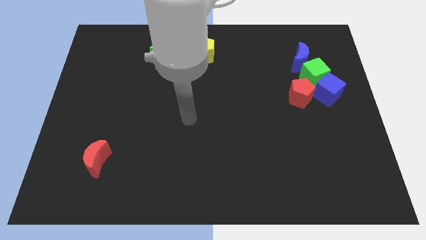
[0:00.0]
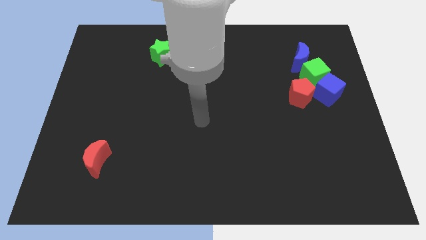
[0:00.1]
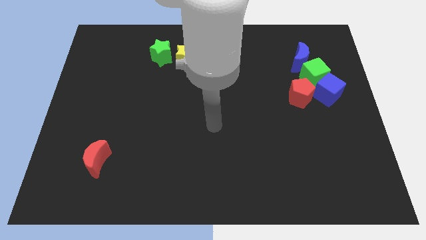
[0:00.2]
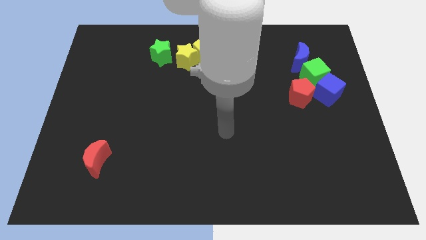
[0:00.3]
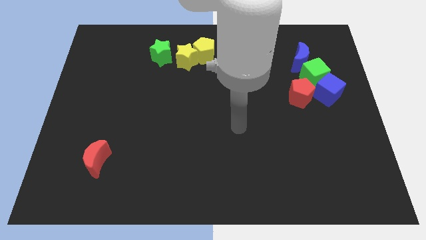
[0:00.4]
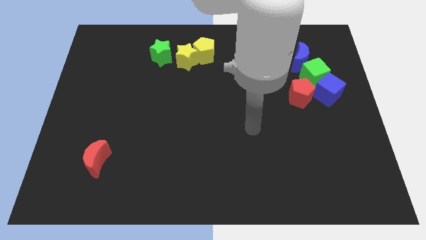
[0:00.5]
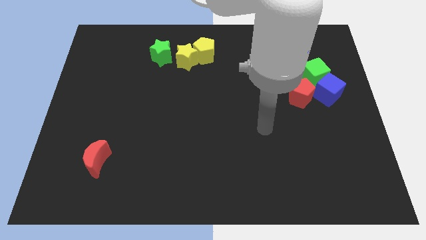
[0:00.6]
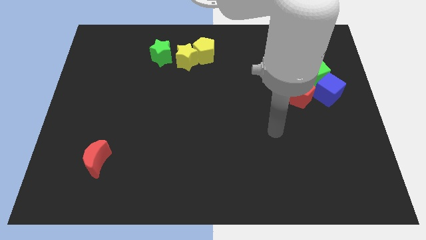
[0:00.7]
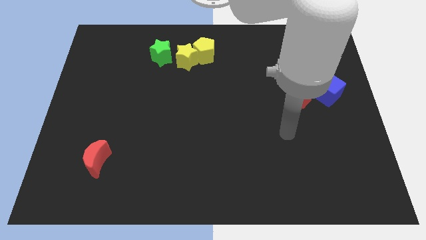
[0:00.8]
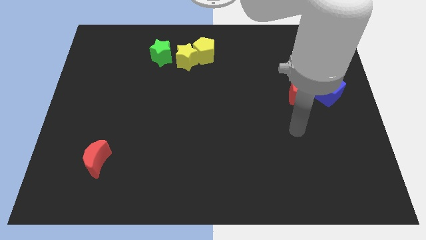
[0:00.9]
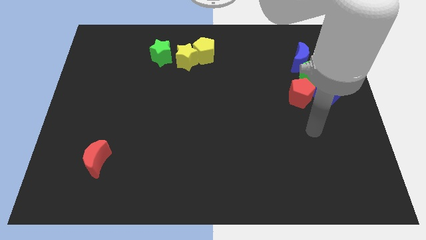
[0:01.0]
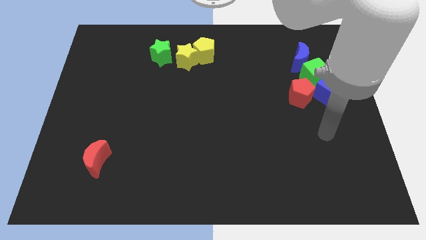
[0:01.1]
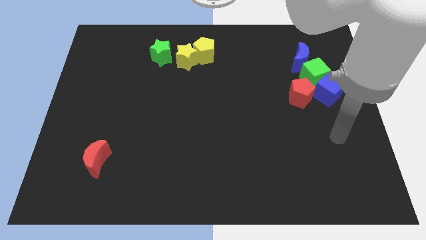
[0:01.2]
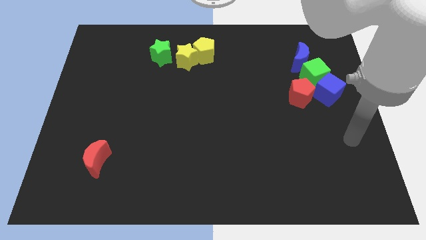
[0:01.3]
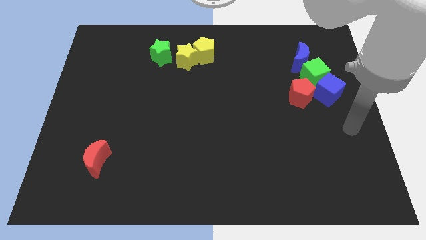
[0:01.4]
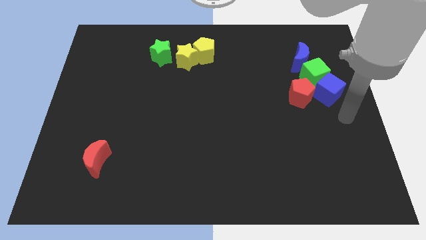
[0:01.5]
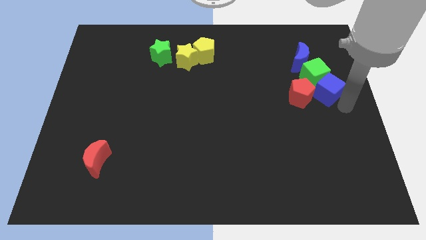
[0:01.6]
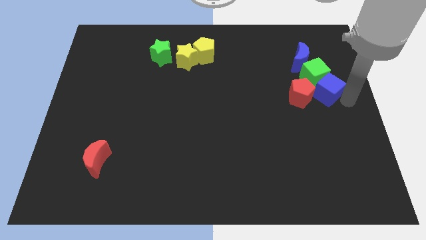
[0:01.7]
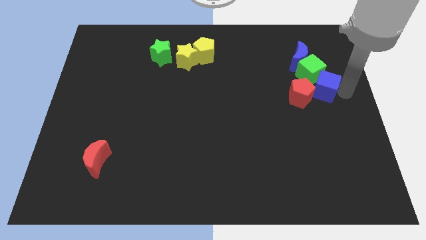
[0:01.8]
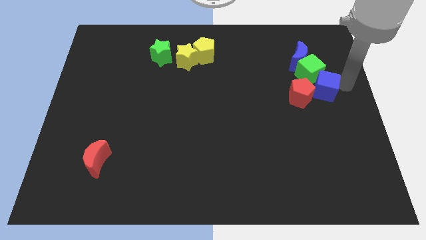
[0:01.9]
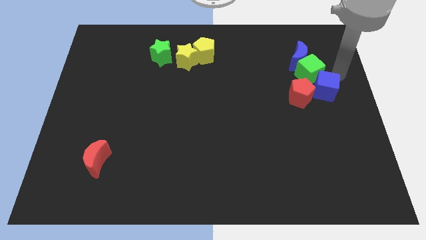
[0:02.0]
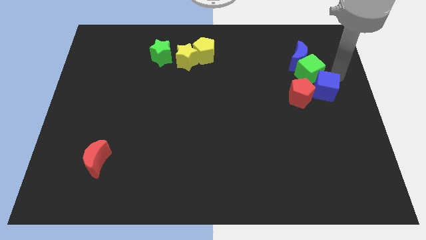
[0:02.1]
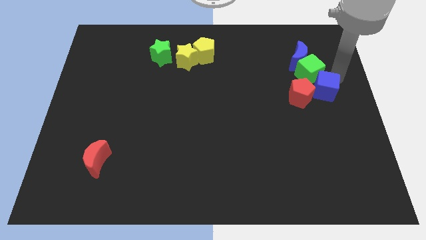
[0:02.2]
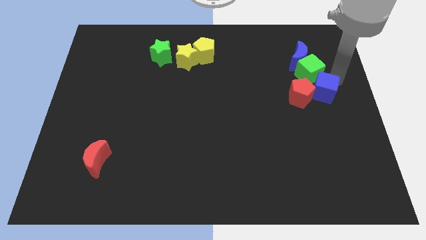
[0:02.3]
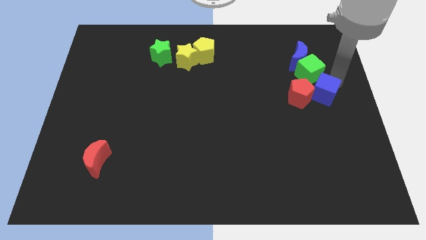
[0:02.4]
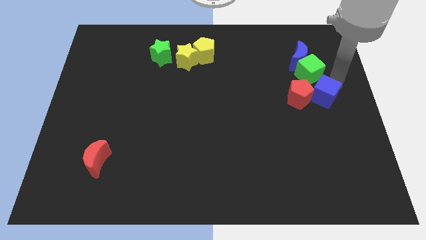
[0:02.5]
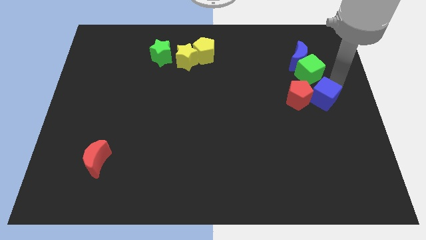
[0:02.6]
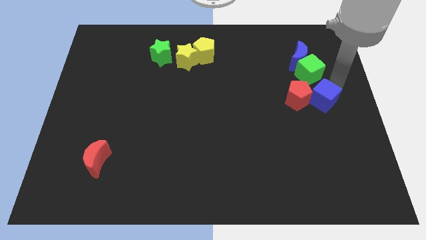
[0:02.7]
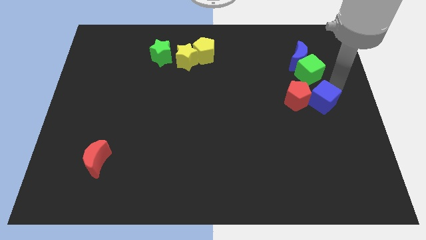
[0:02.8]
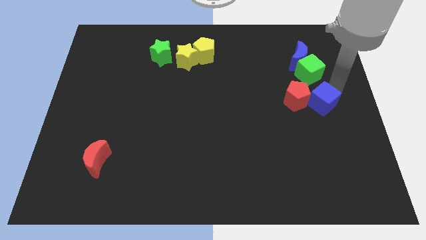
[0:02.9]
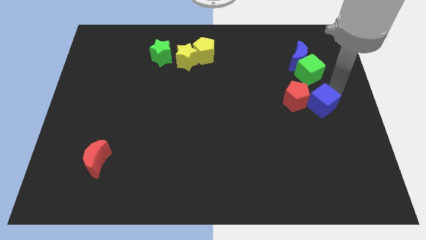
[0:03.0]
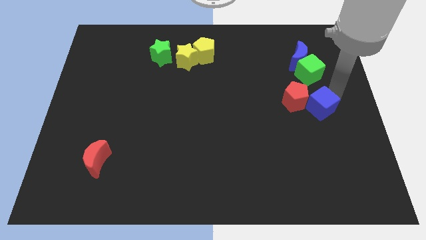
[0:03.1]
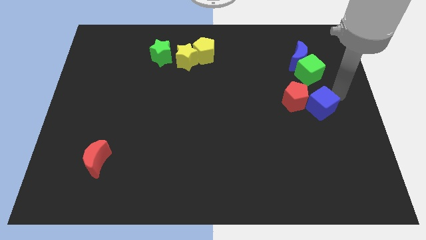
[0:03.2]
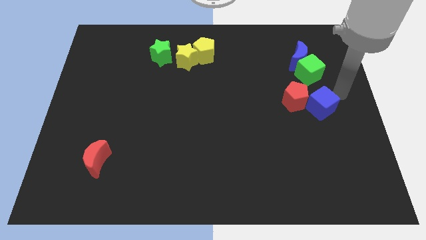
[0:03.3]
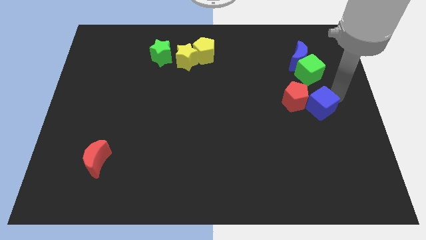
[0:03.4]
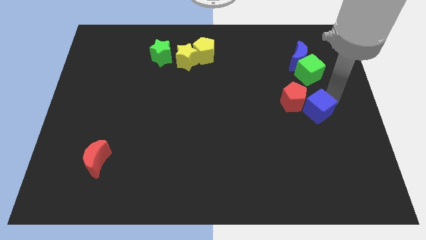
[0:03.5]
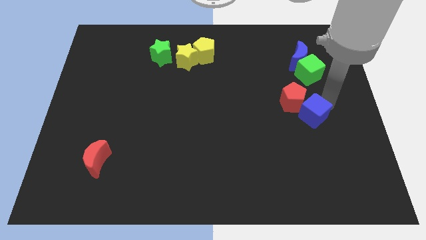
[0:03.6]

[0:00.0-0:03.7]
slightly push the blue cube down and left

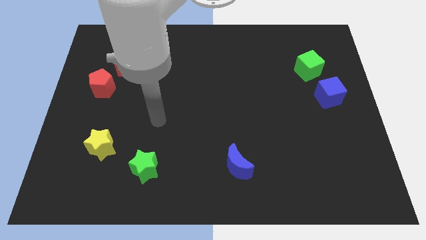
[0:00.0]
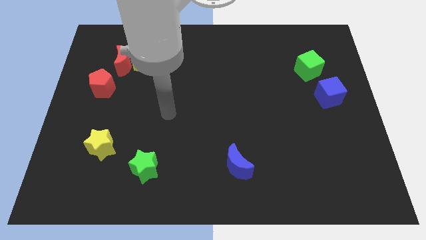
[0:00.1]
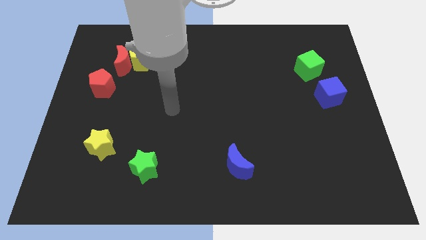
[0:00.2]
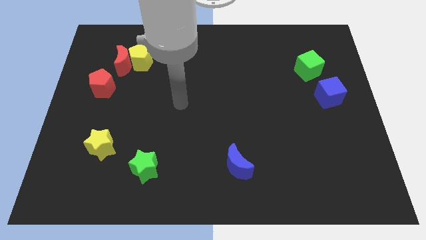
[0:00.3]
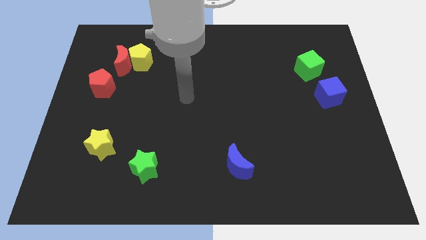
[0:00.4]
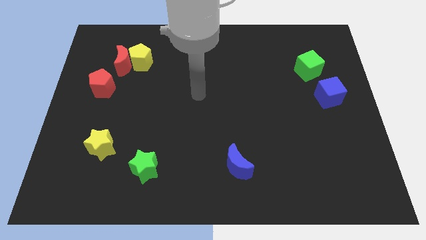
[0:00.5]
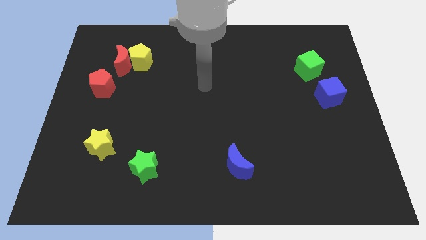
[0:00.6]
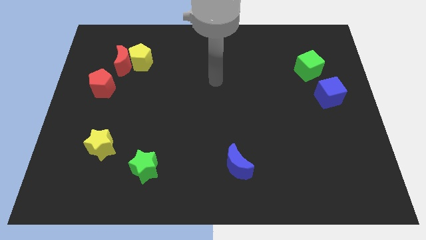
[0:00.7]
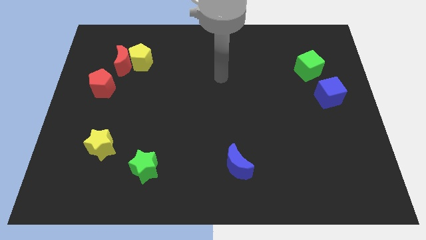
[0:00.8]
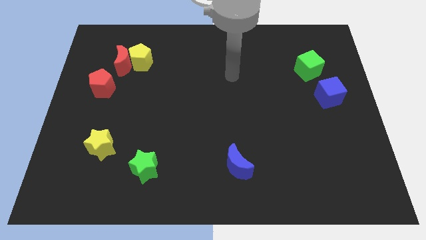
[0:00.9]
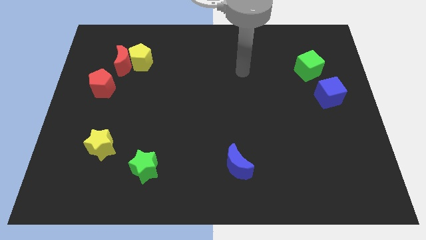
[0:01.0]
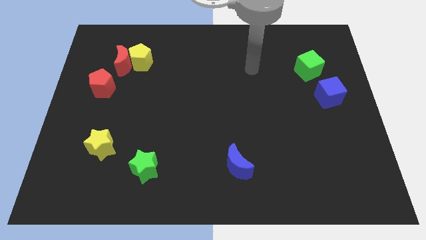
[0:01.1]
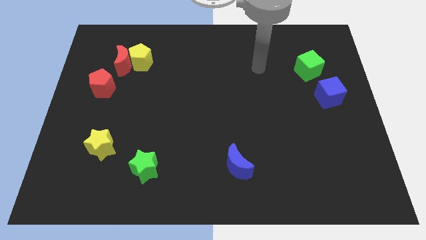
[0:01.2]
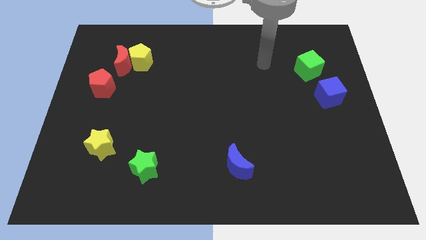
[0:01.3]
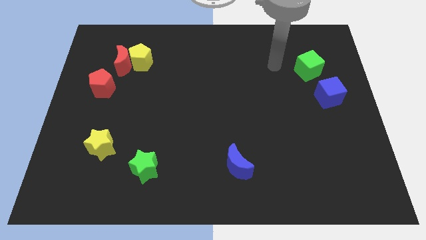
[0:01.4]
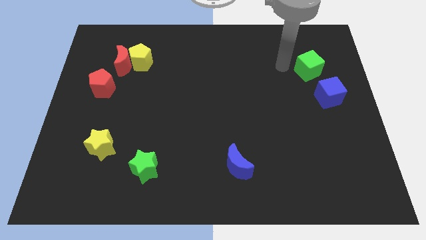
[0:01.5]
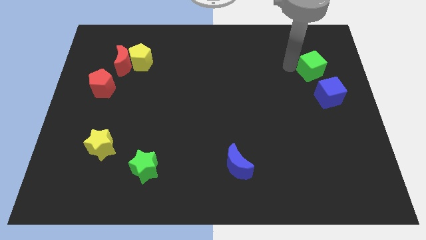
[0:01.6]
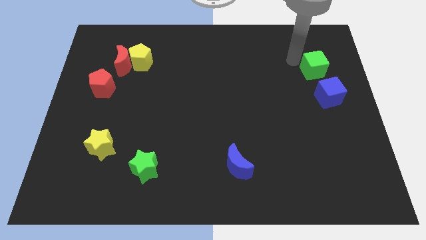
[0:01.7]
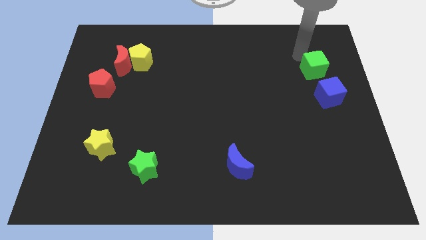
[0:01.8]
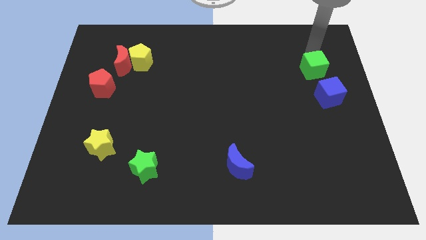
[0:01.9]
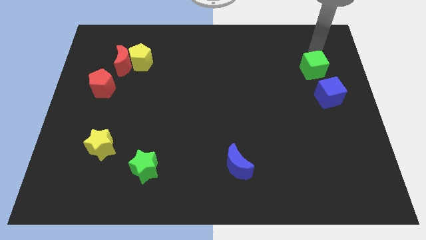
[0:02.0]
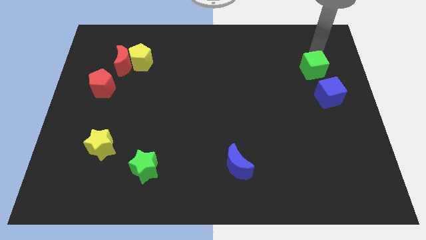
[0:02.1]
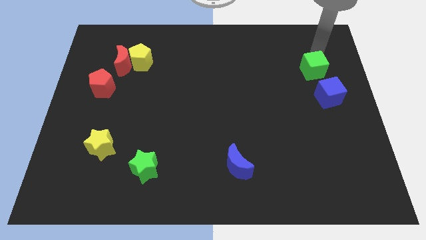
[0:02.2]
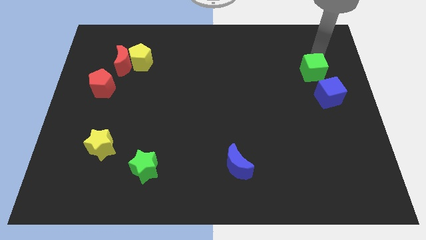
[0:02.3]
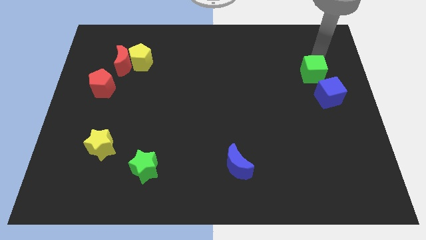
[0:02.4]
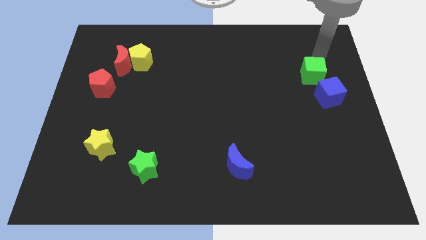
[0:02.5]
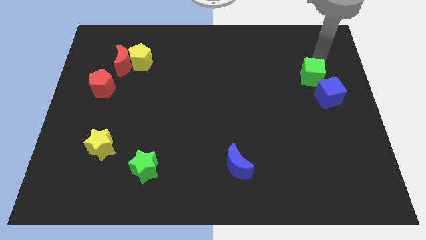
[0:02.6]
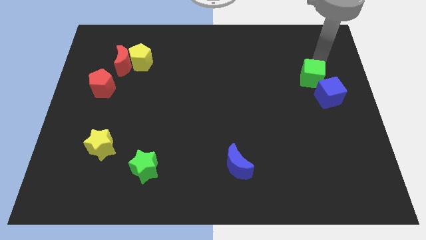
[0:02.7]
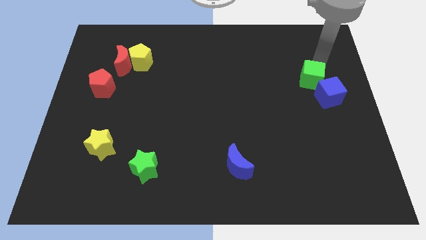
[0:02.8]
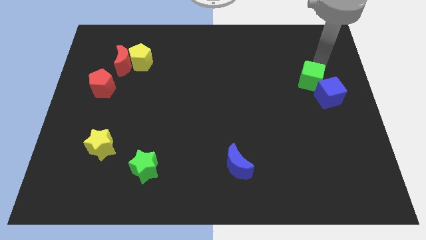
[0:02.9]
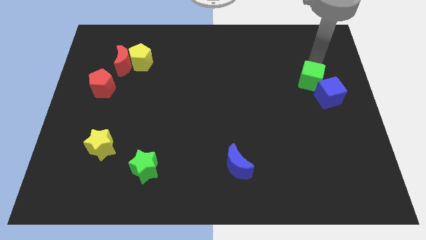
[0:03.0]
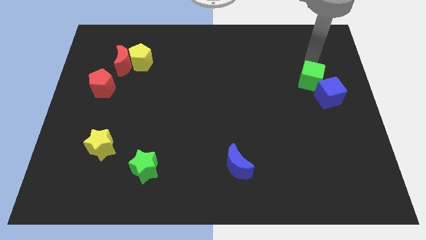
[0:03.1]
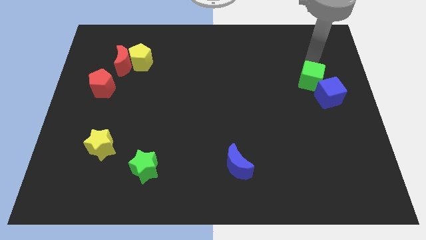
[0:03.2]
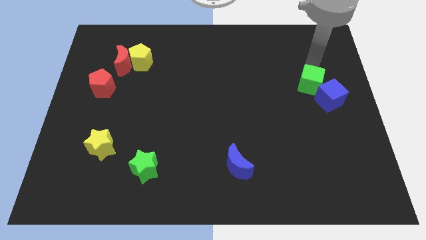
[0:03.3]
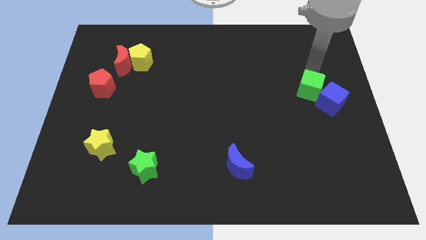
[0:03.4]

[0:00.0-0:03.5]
slightly move the green cube down

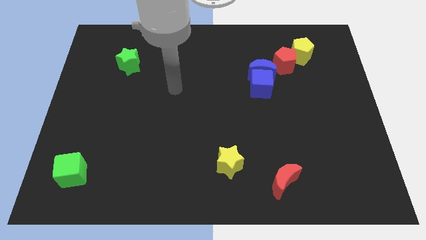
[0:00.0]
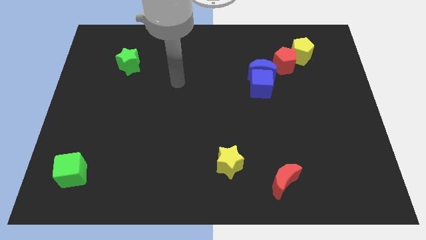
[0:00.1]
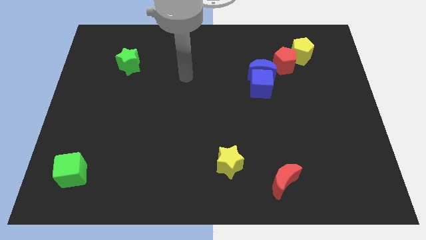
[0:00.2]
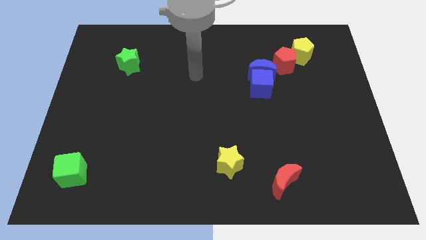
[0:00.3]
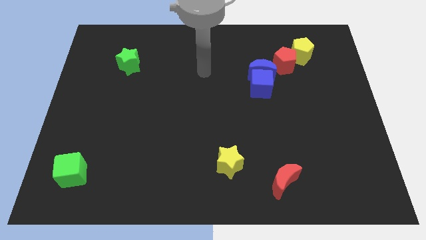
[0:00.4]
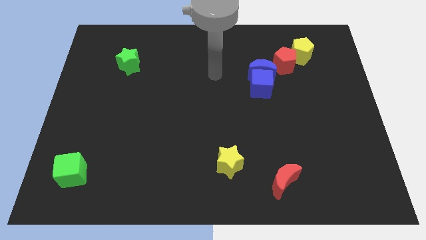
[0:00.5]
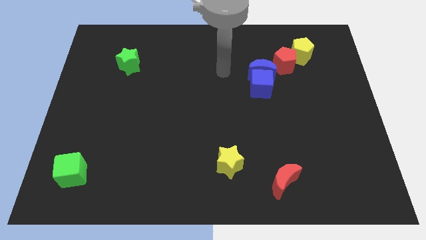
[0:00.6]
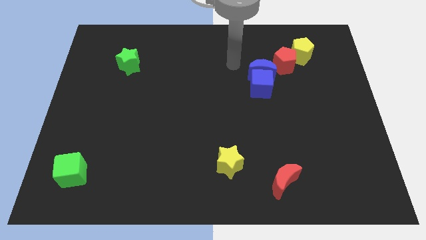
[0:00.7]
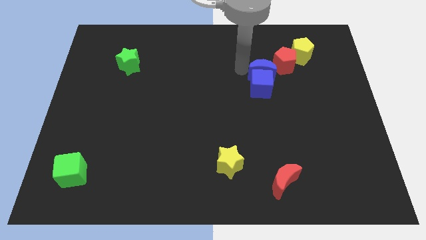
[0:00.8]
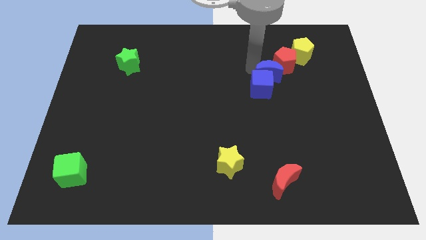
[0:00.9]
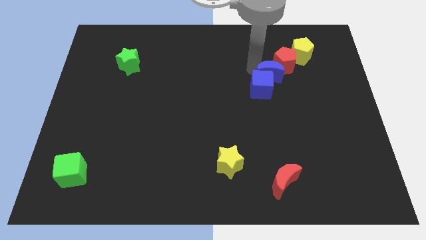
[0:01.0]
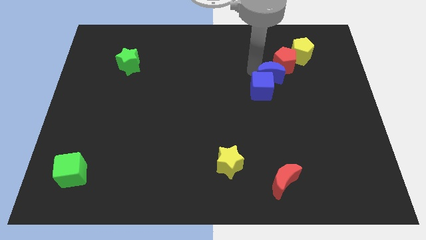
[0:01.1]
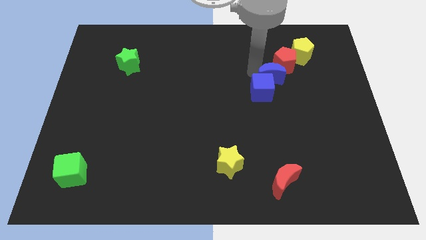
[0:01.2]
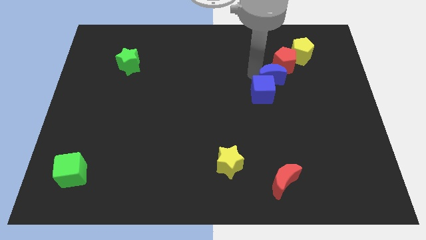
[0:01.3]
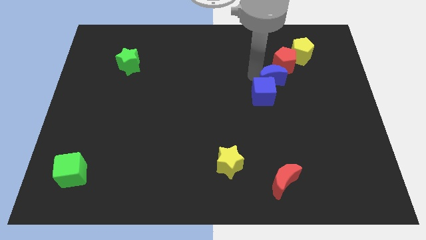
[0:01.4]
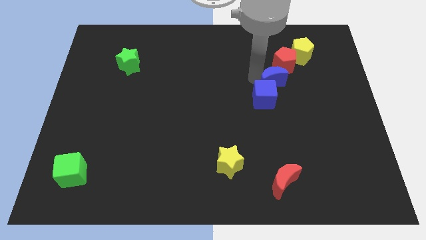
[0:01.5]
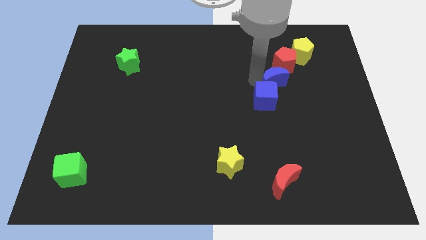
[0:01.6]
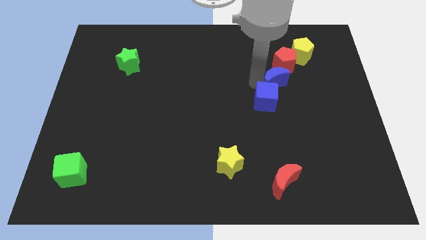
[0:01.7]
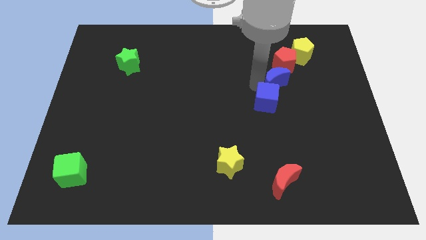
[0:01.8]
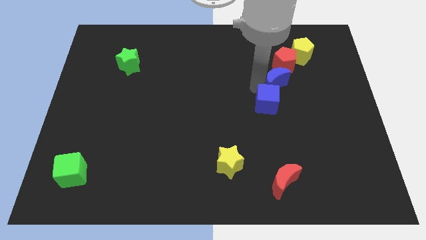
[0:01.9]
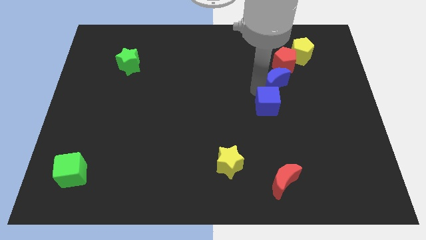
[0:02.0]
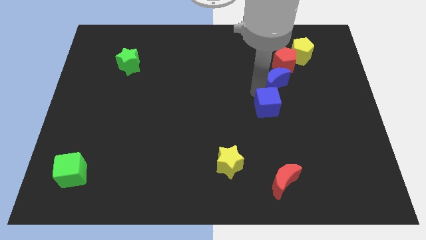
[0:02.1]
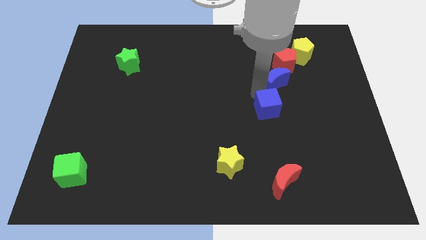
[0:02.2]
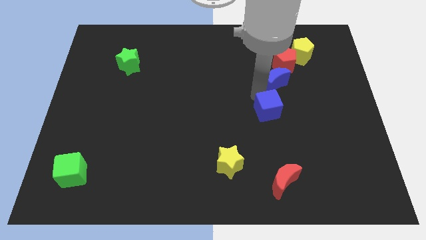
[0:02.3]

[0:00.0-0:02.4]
slightly slide the blue cube down
